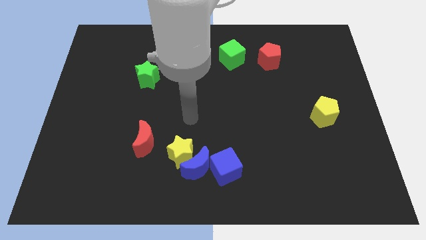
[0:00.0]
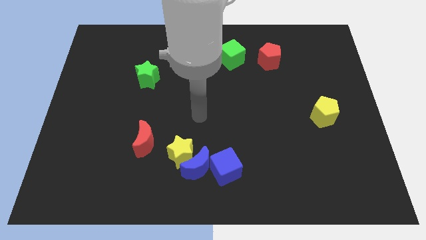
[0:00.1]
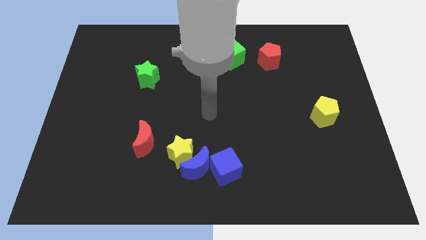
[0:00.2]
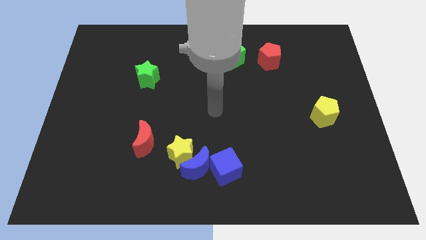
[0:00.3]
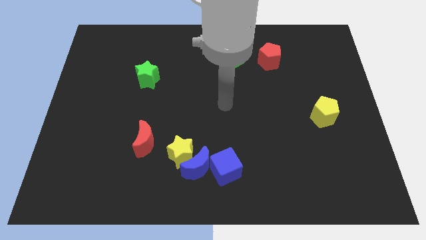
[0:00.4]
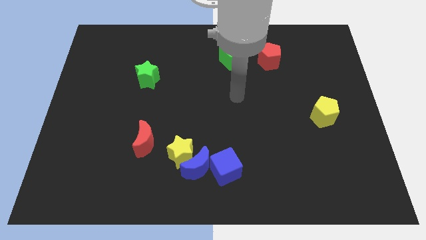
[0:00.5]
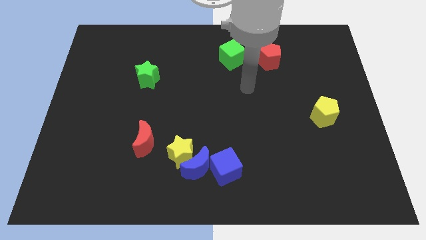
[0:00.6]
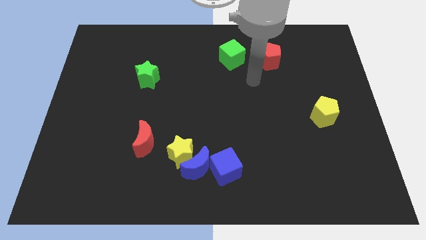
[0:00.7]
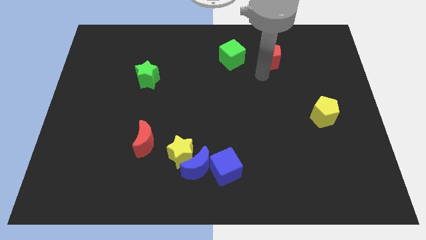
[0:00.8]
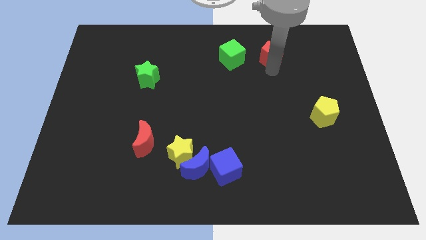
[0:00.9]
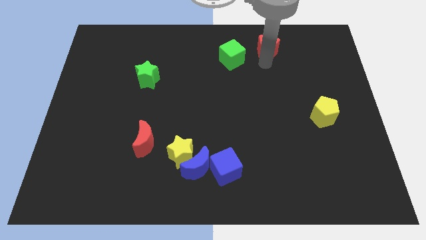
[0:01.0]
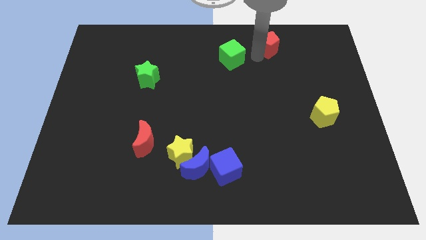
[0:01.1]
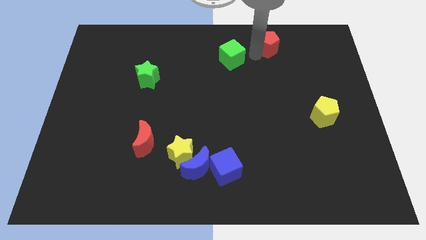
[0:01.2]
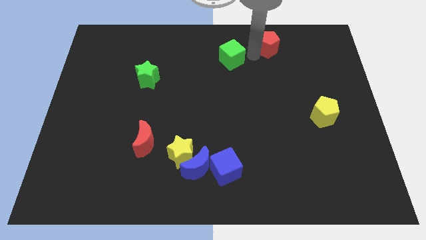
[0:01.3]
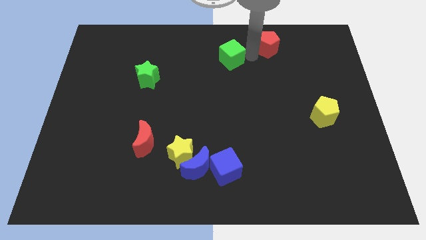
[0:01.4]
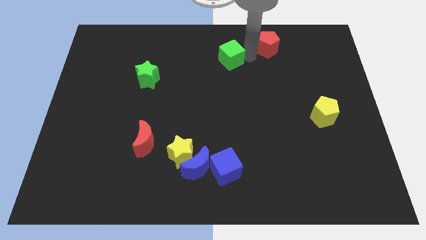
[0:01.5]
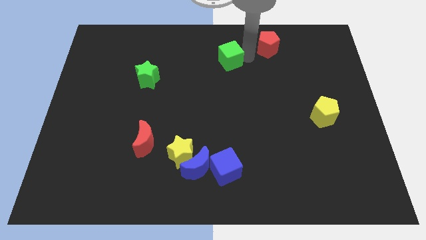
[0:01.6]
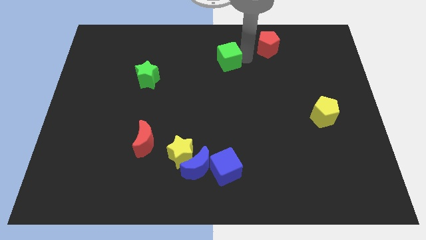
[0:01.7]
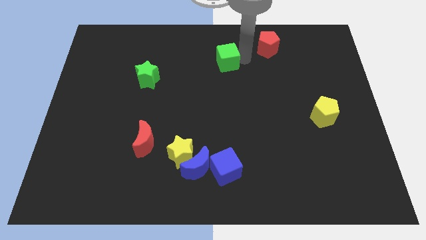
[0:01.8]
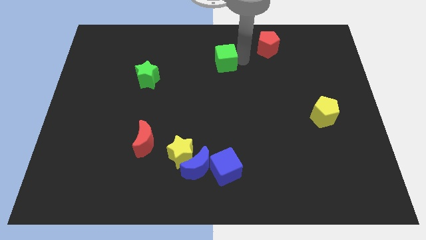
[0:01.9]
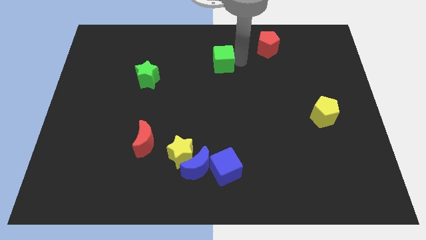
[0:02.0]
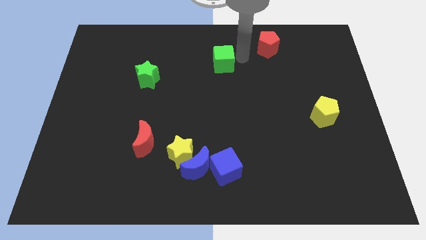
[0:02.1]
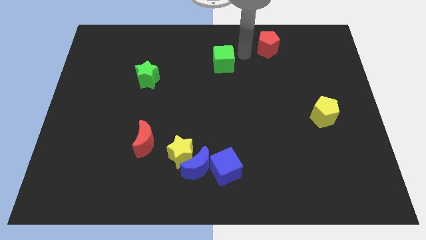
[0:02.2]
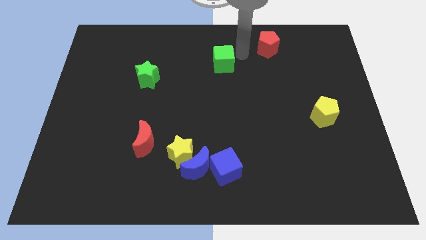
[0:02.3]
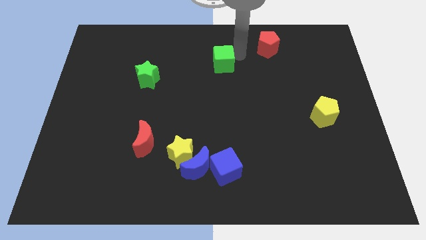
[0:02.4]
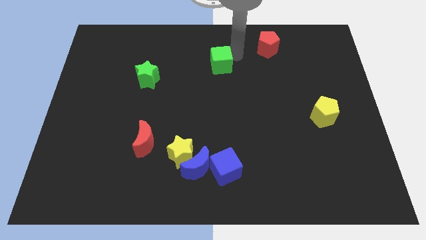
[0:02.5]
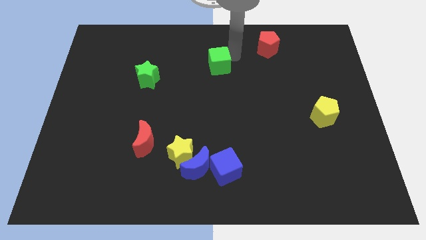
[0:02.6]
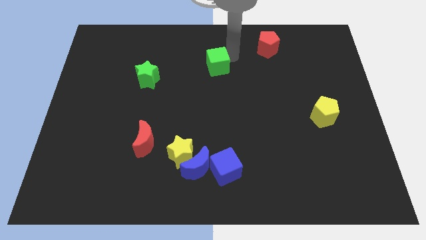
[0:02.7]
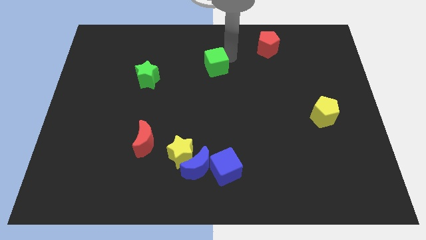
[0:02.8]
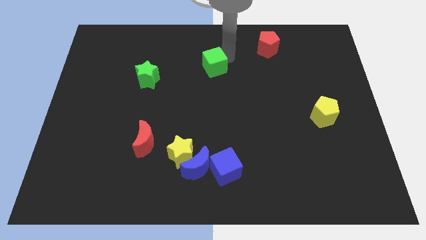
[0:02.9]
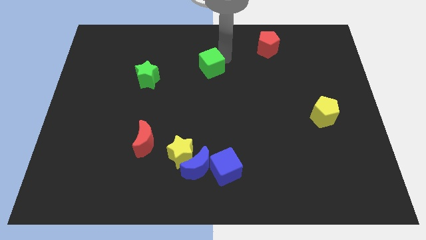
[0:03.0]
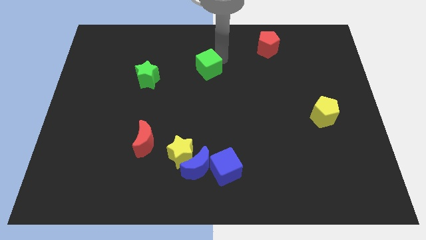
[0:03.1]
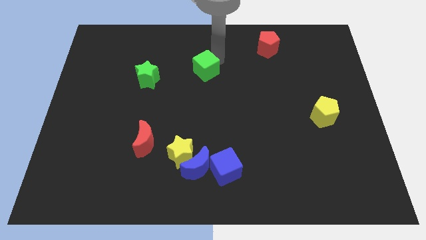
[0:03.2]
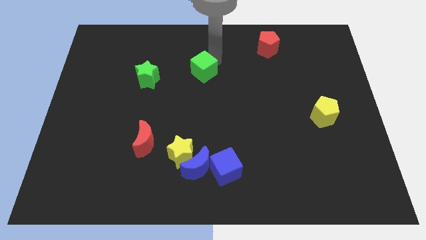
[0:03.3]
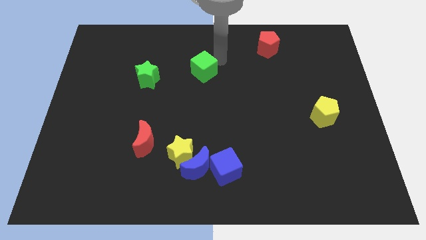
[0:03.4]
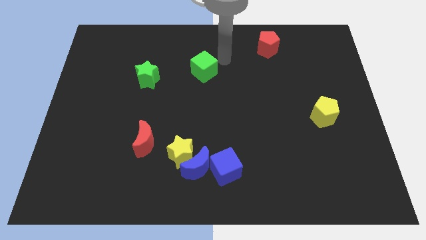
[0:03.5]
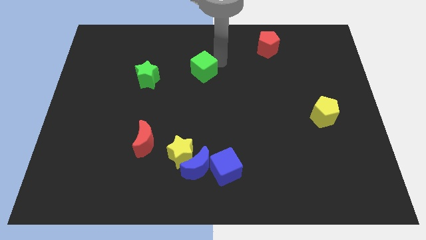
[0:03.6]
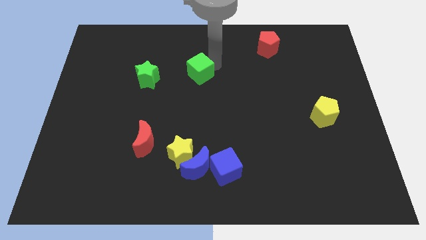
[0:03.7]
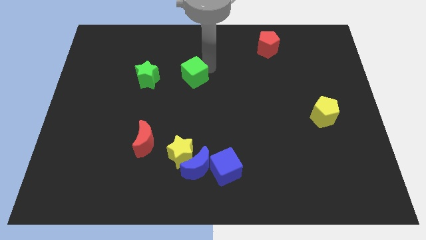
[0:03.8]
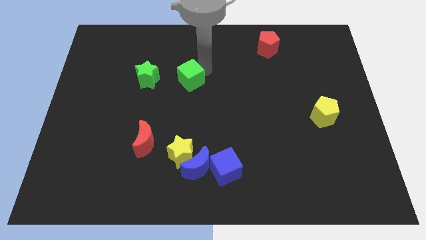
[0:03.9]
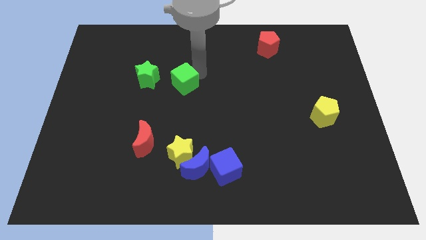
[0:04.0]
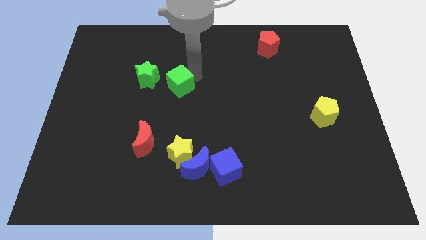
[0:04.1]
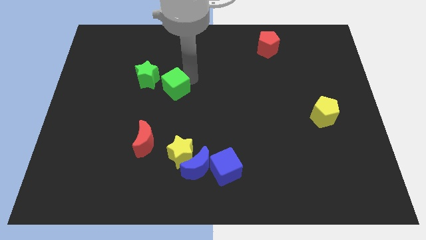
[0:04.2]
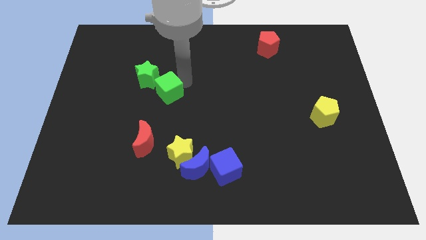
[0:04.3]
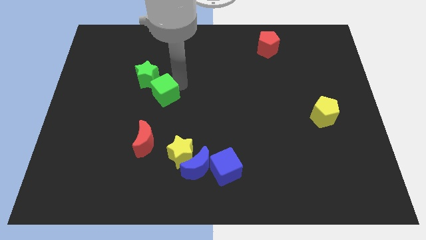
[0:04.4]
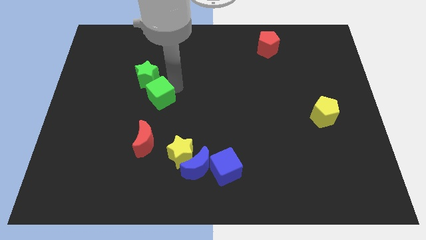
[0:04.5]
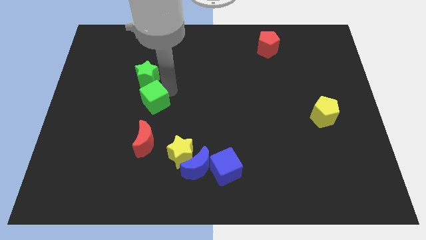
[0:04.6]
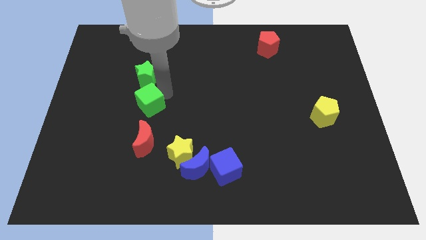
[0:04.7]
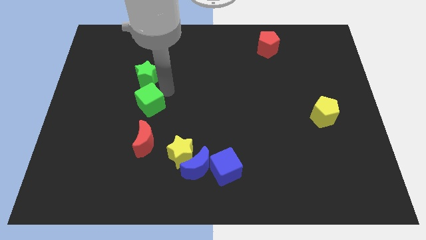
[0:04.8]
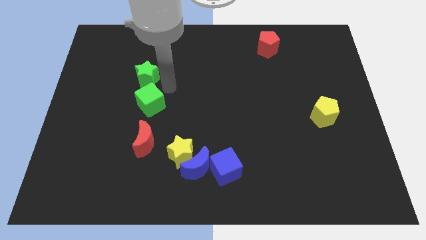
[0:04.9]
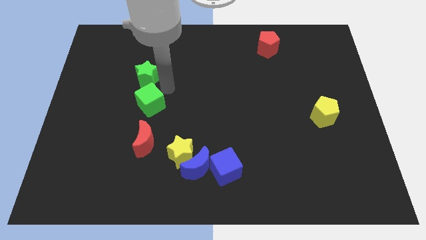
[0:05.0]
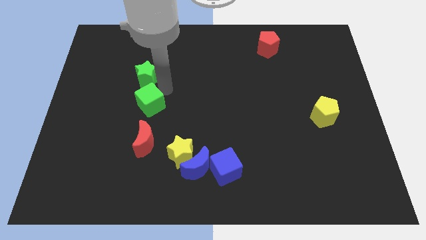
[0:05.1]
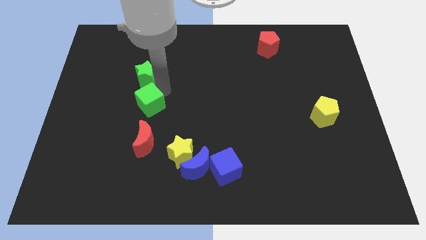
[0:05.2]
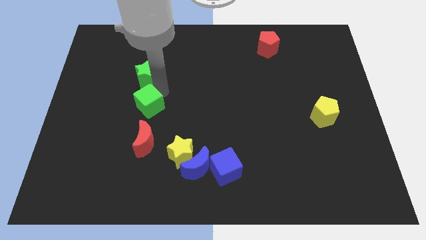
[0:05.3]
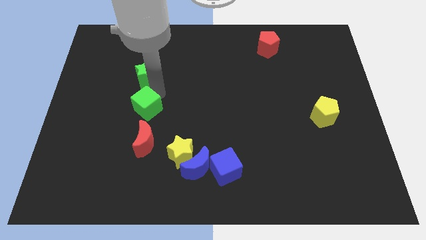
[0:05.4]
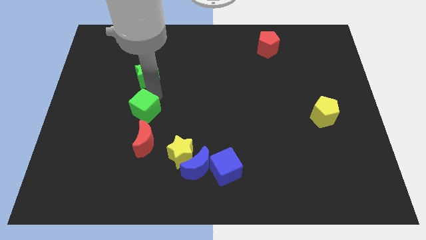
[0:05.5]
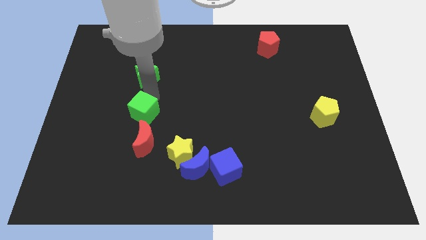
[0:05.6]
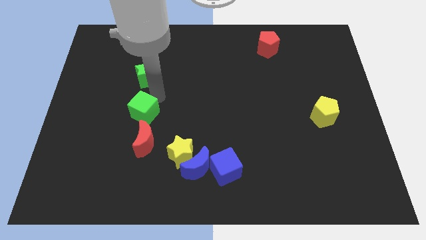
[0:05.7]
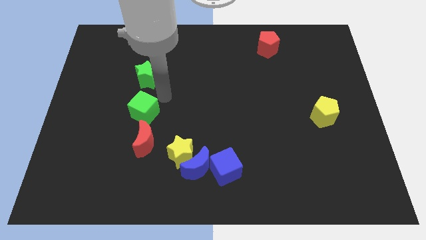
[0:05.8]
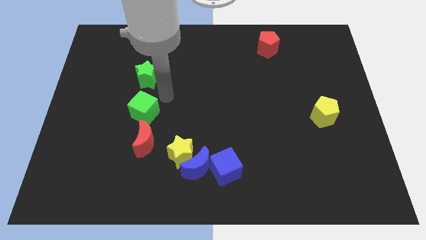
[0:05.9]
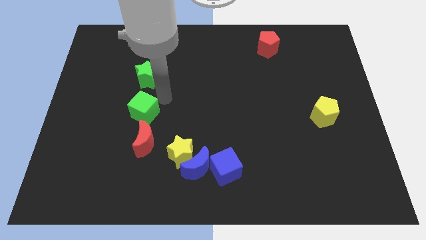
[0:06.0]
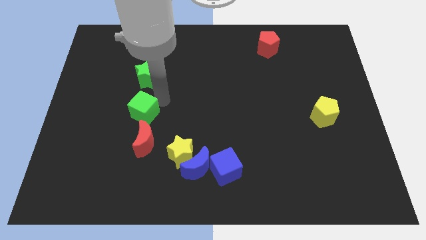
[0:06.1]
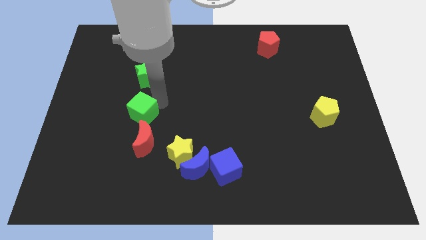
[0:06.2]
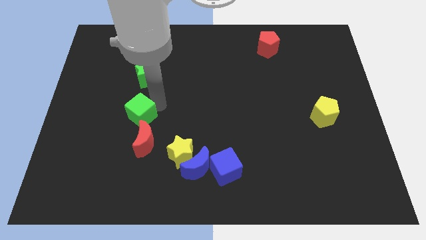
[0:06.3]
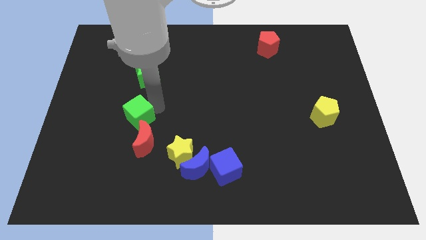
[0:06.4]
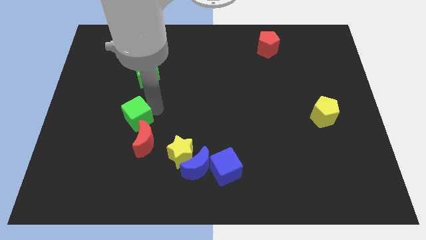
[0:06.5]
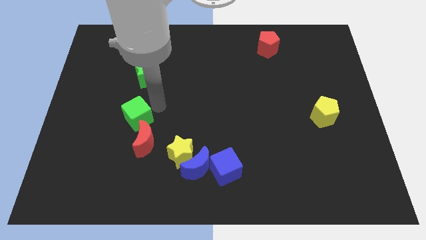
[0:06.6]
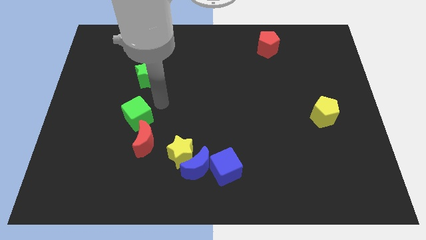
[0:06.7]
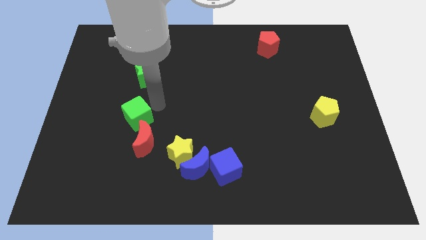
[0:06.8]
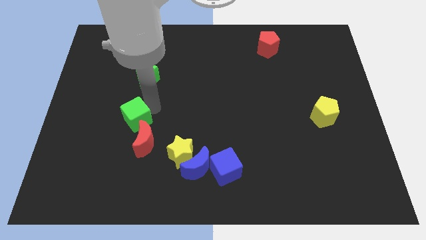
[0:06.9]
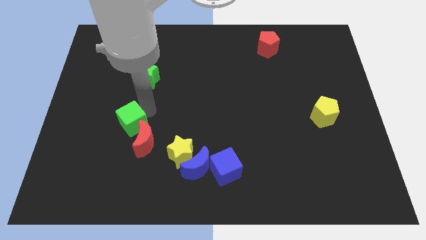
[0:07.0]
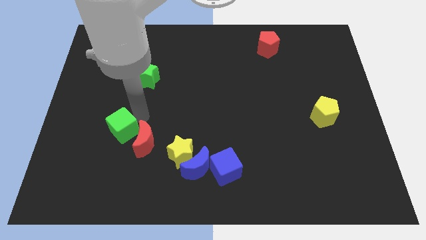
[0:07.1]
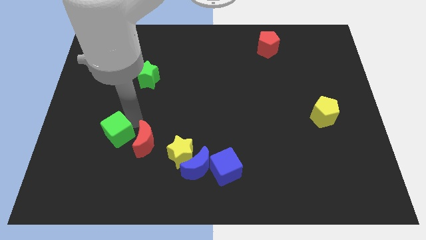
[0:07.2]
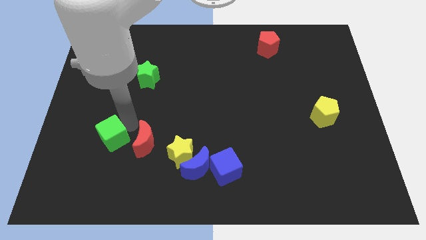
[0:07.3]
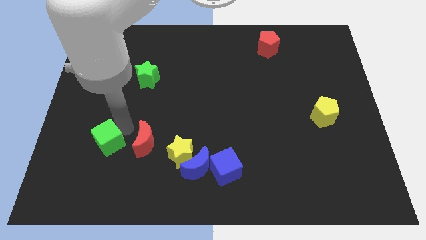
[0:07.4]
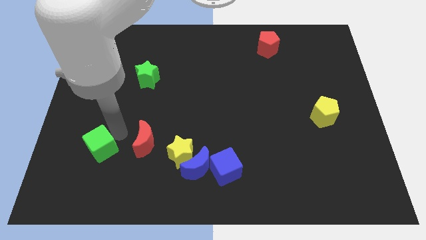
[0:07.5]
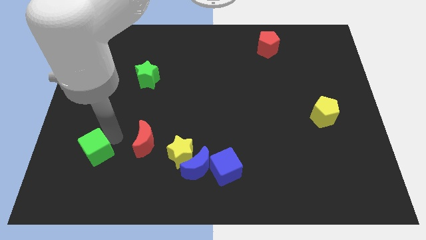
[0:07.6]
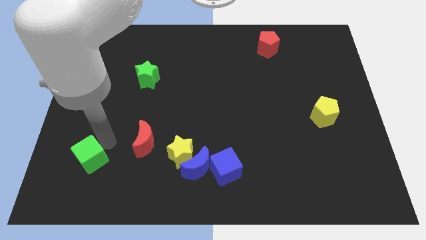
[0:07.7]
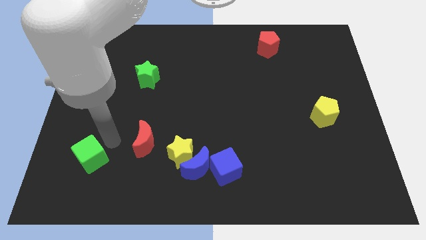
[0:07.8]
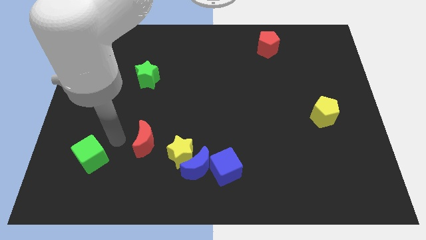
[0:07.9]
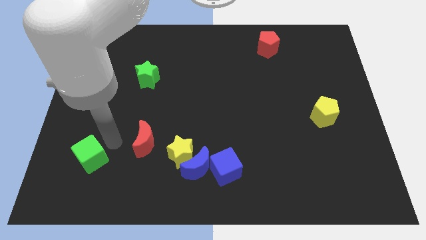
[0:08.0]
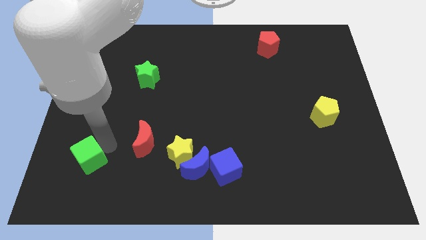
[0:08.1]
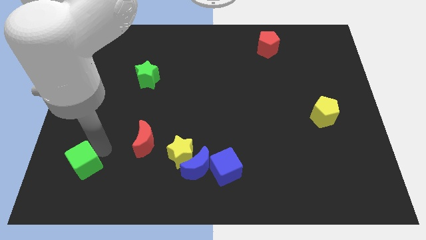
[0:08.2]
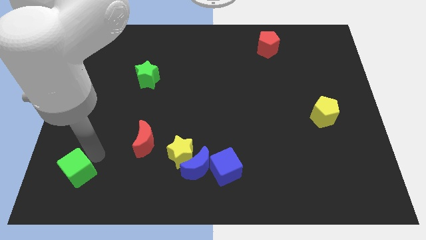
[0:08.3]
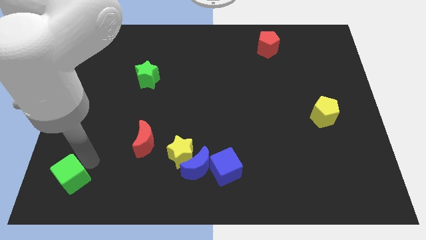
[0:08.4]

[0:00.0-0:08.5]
push the green cube to the bottom left of the board

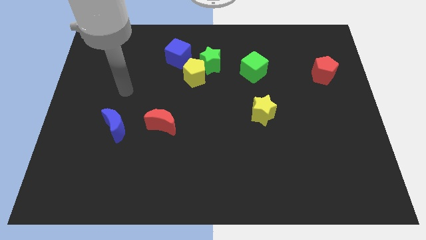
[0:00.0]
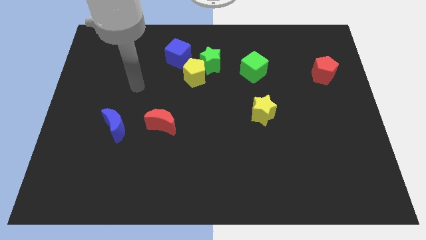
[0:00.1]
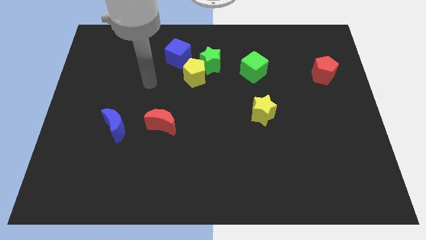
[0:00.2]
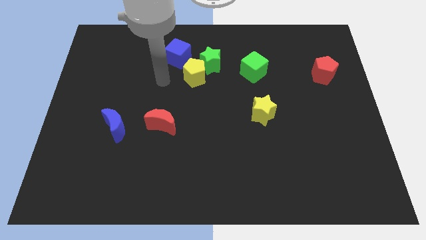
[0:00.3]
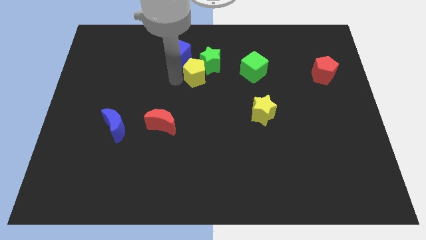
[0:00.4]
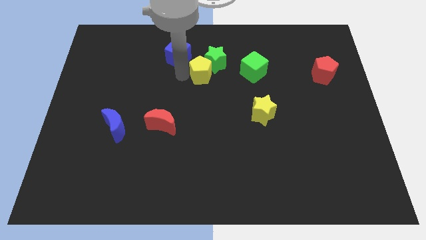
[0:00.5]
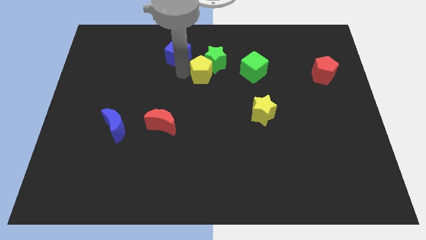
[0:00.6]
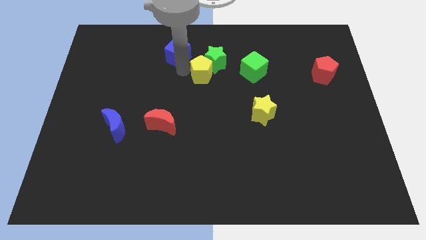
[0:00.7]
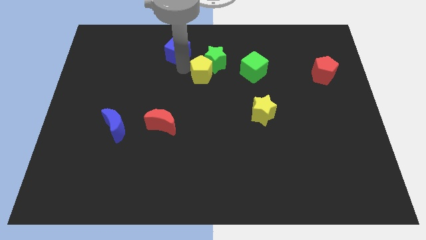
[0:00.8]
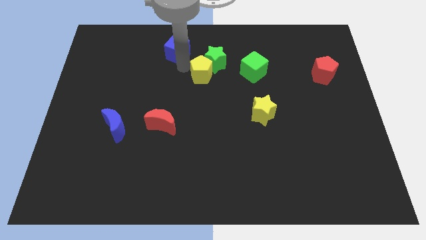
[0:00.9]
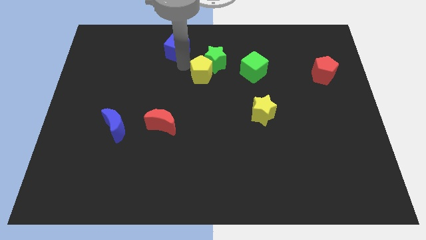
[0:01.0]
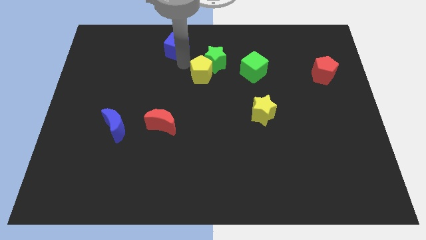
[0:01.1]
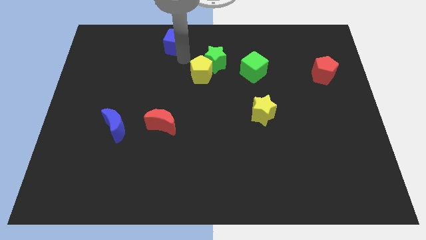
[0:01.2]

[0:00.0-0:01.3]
move the blue cube to the towards your base
